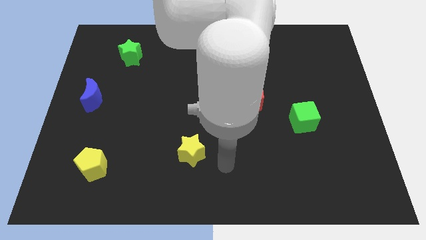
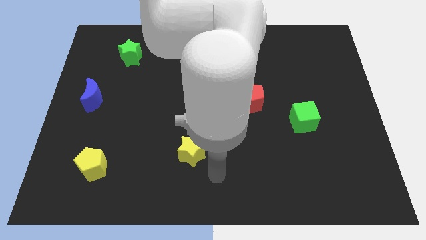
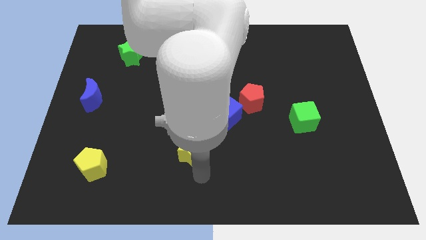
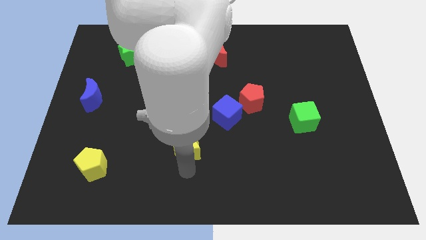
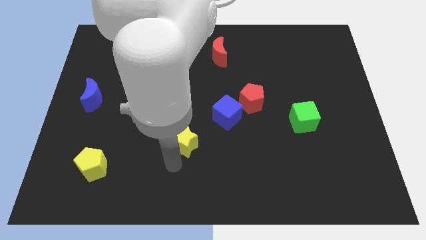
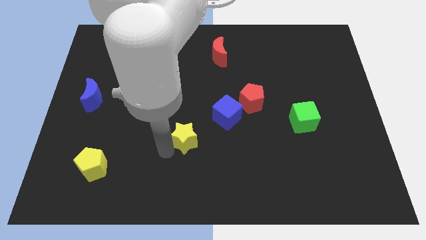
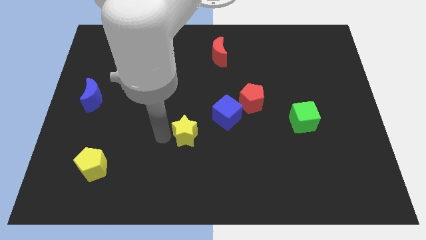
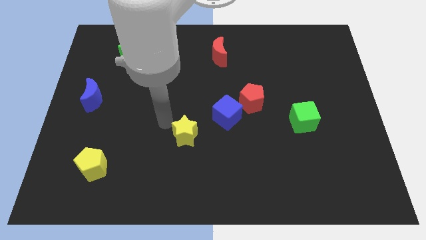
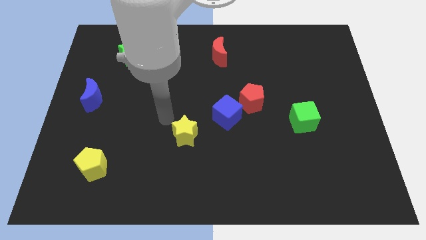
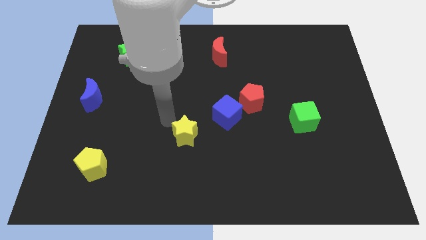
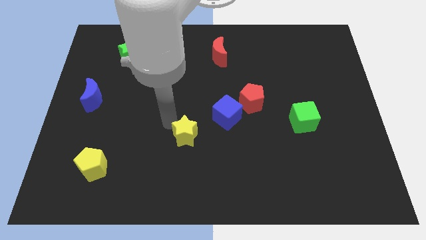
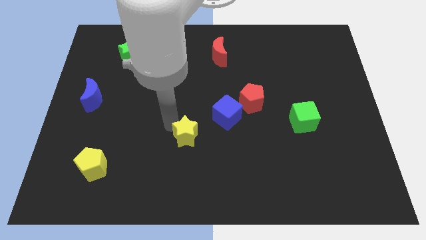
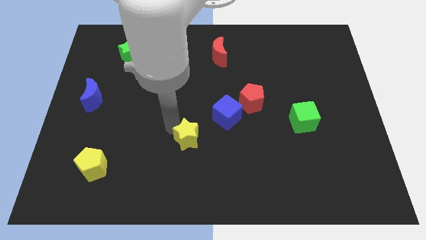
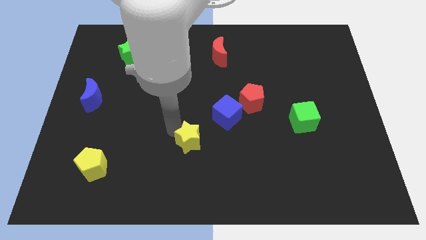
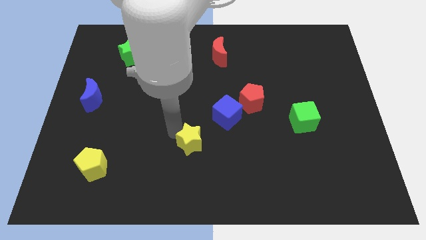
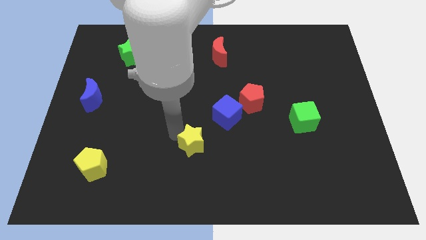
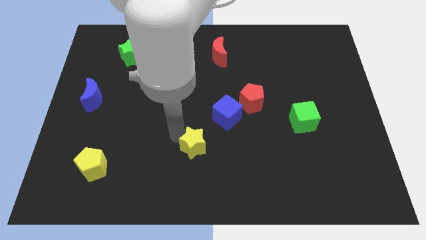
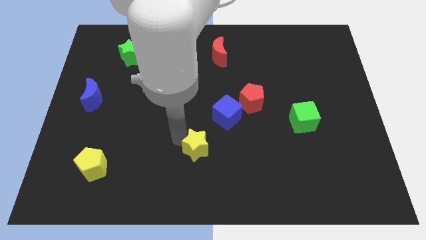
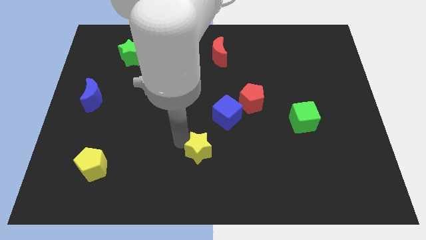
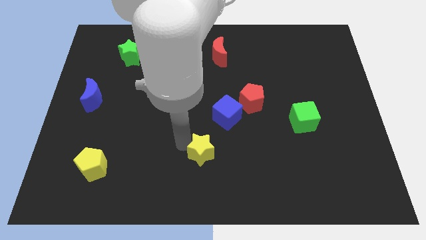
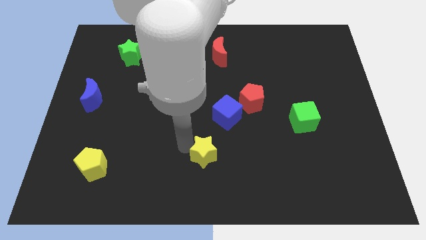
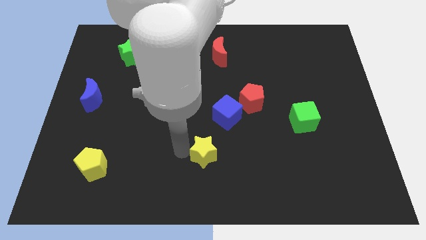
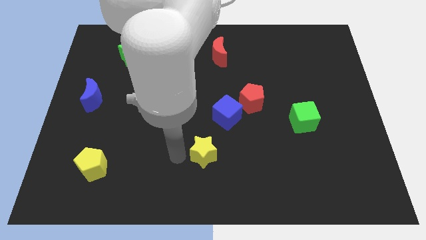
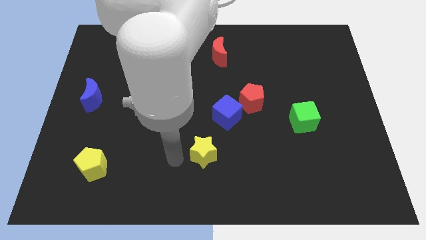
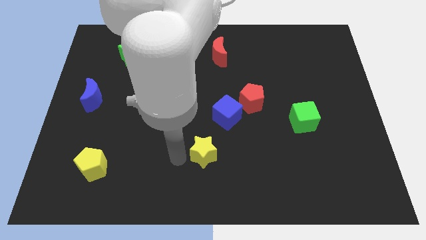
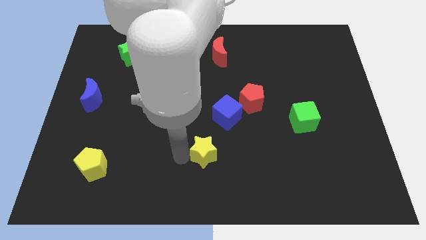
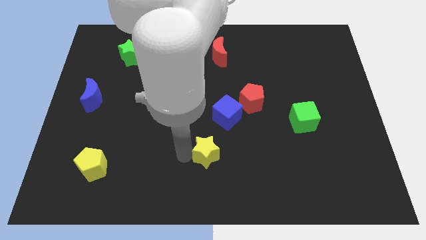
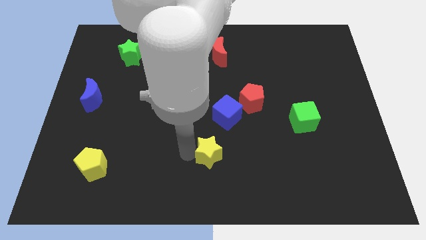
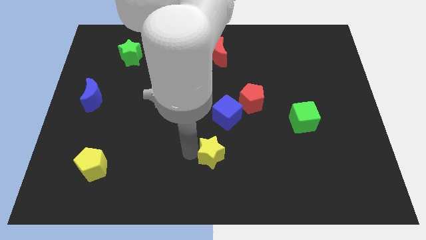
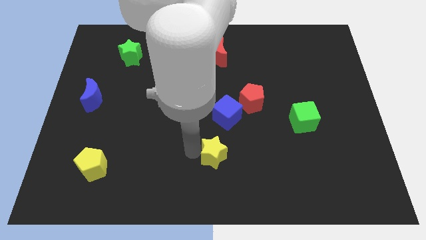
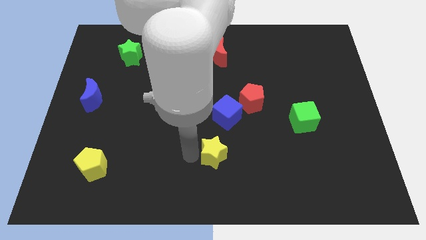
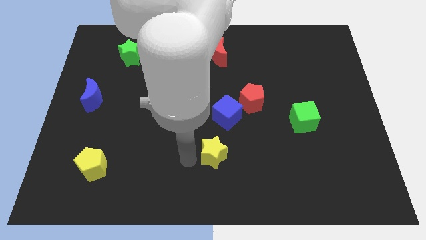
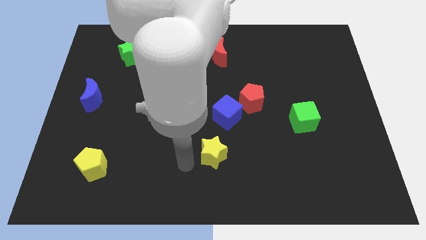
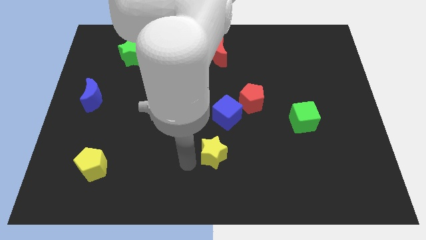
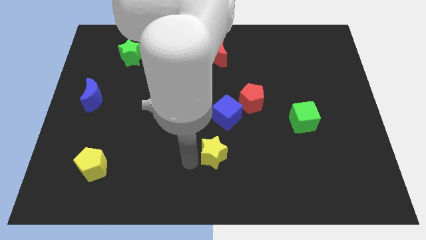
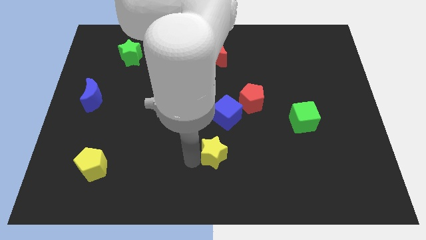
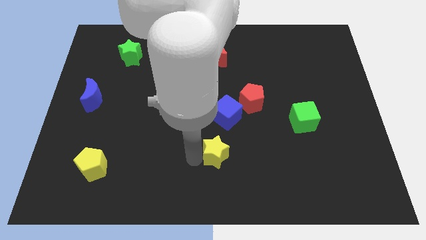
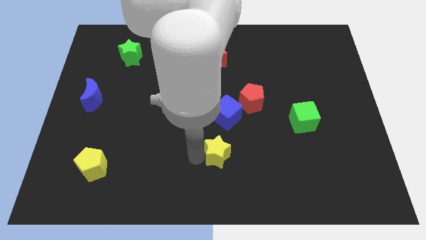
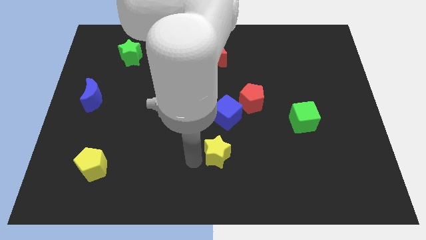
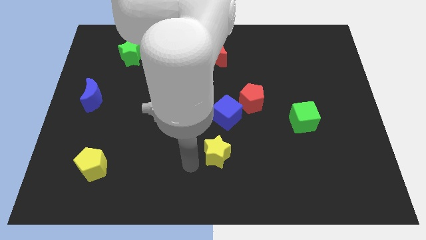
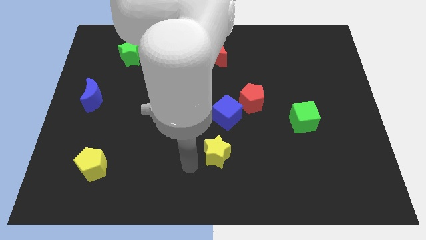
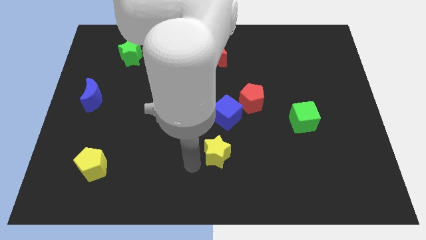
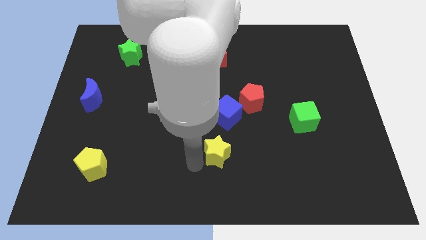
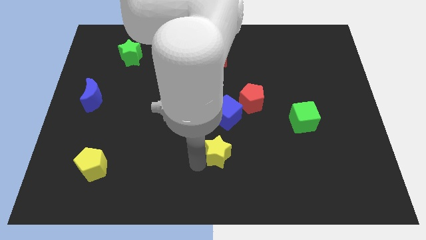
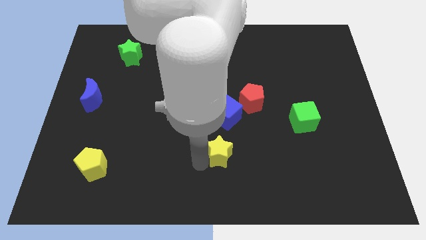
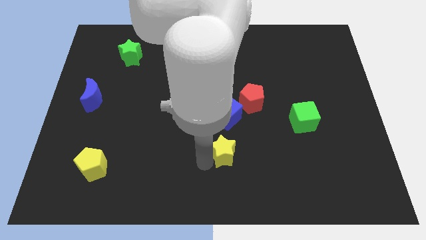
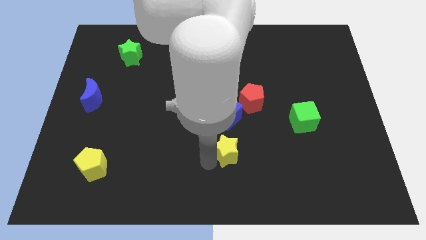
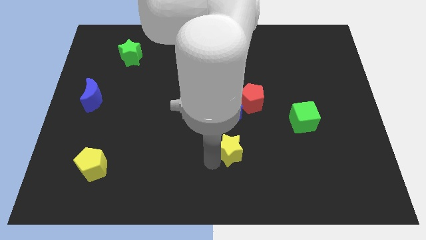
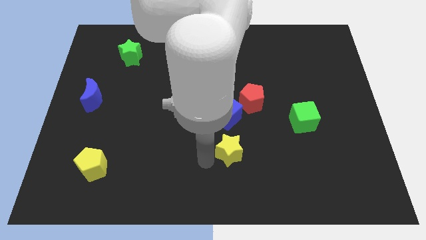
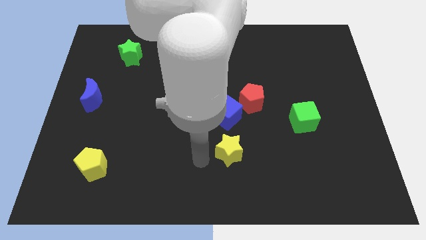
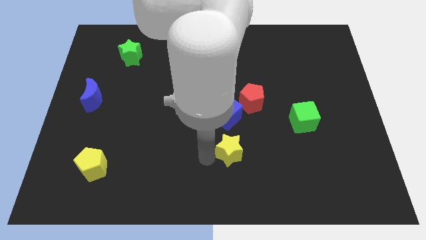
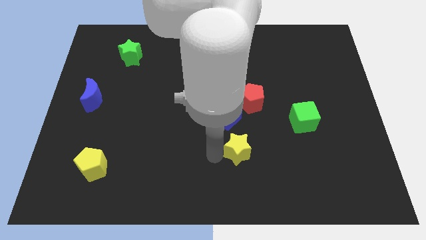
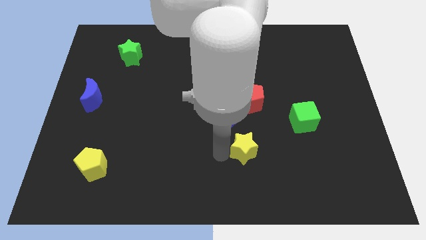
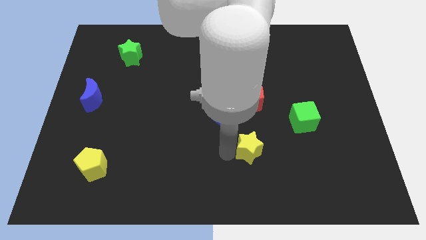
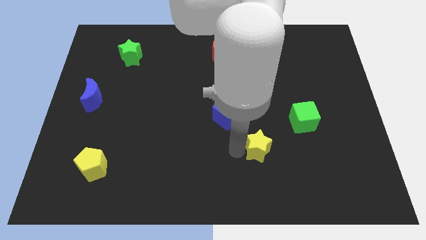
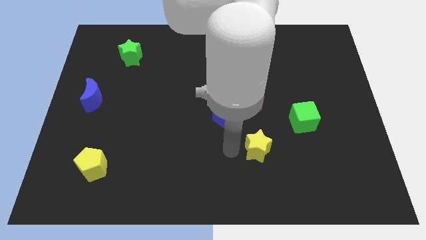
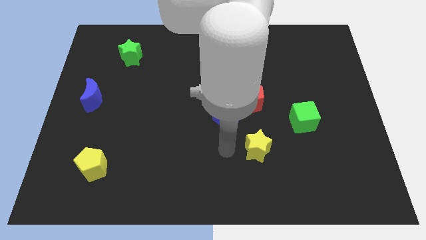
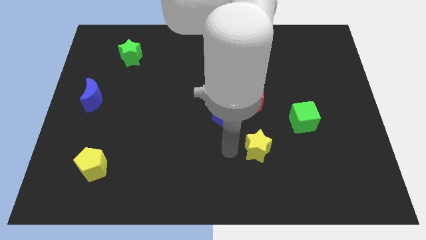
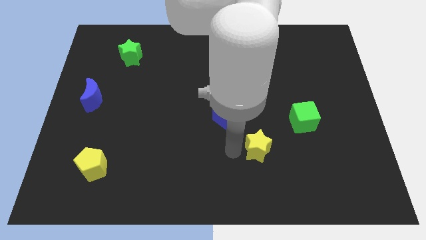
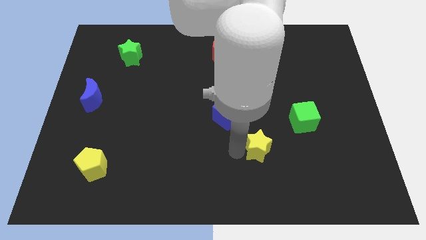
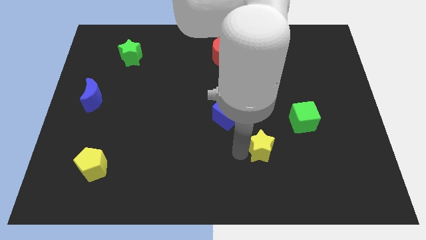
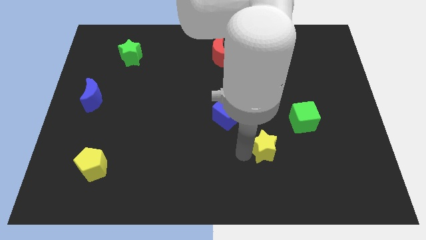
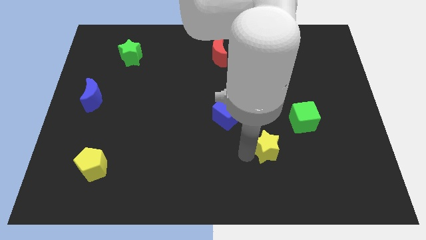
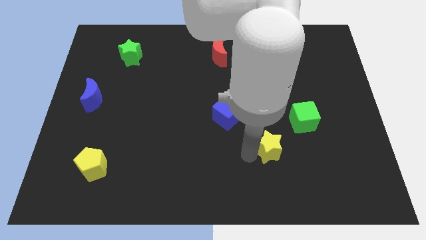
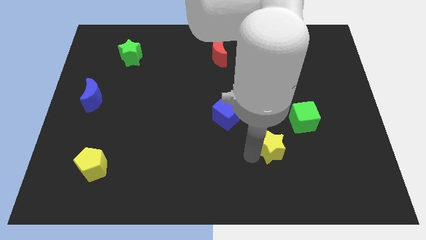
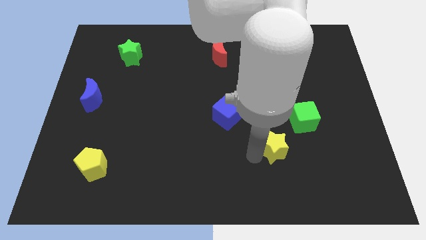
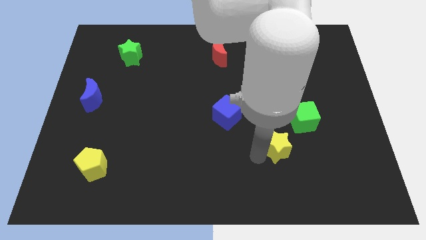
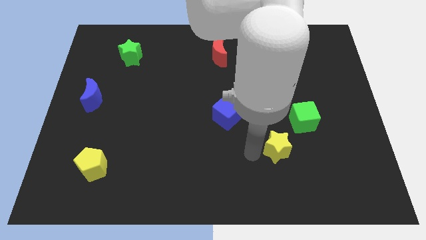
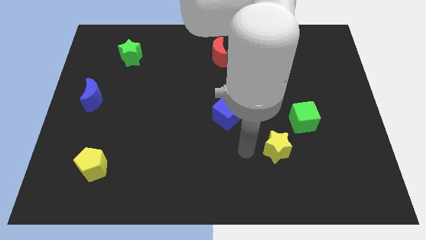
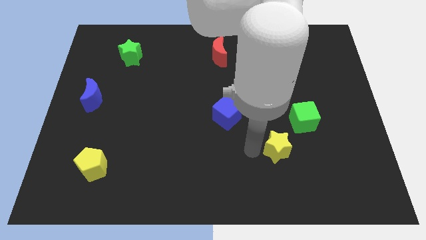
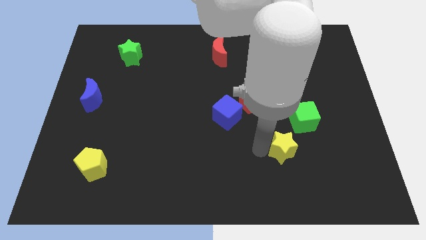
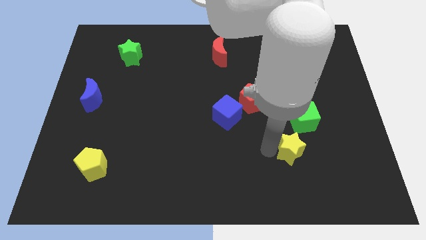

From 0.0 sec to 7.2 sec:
slide the yellow star right

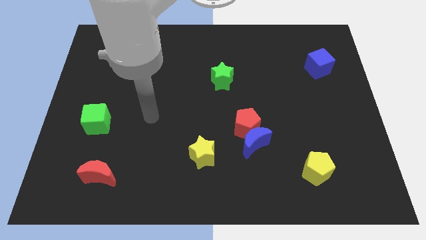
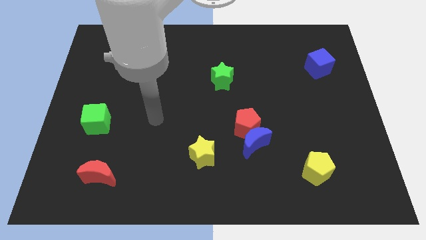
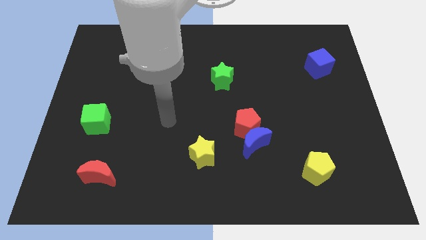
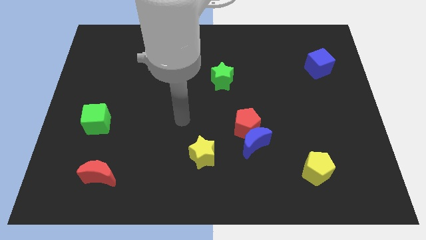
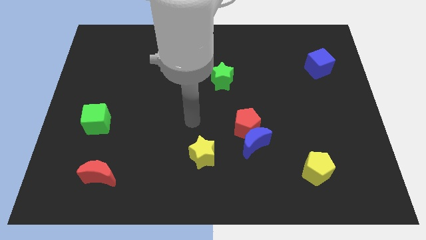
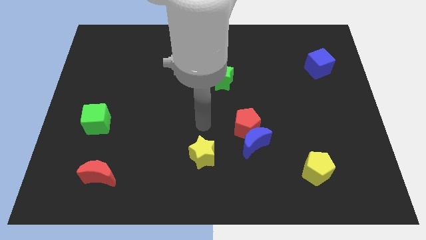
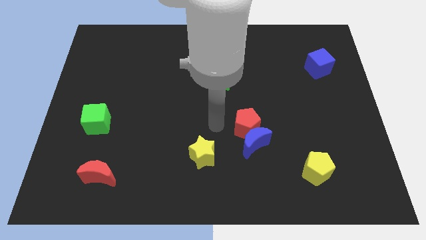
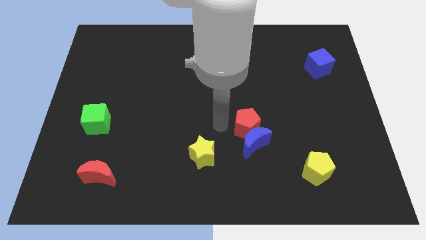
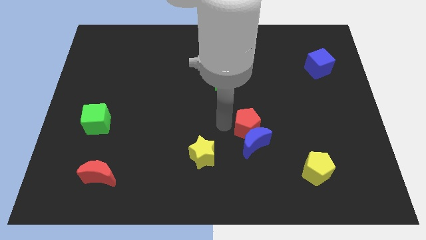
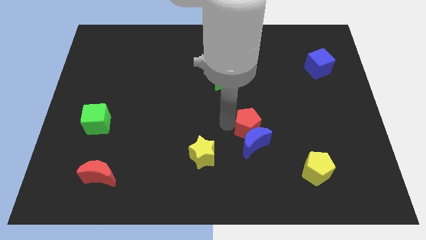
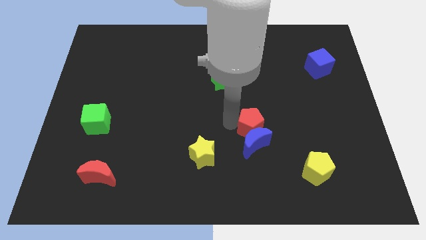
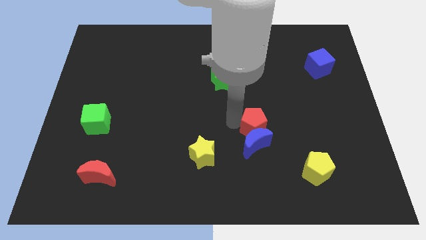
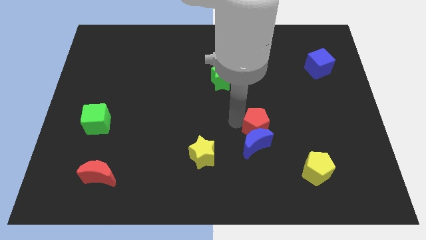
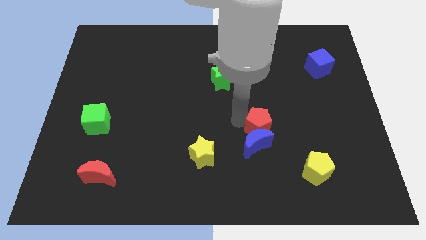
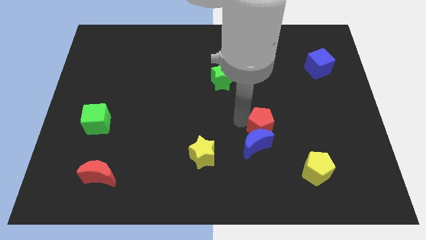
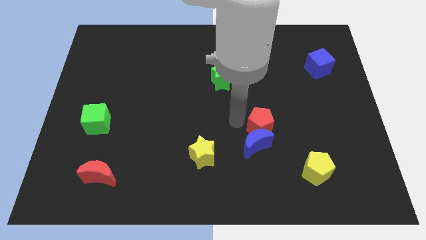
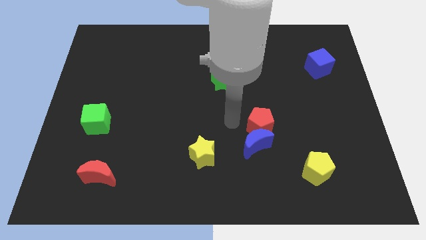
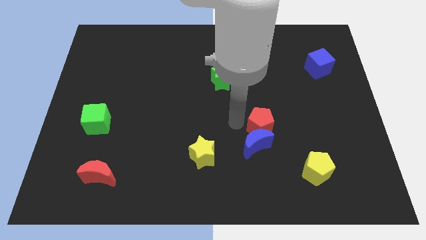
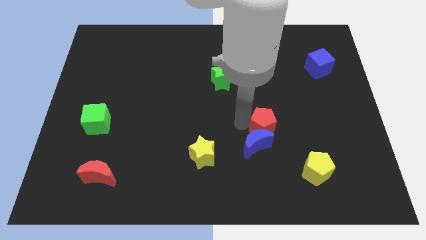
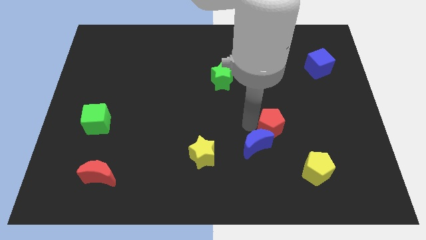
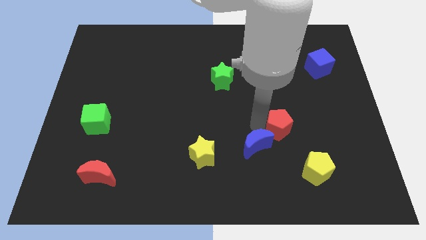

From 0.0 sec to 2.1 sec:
slide the red pentagon a little bit right
